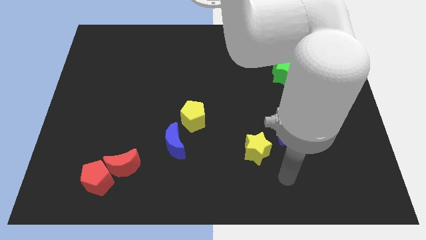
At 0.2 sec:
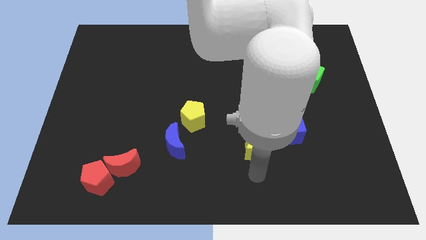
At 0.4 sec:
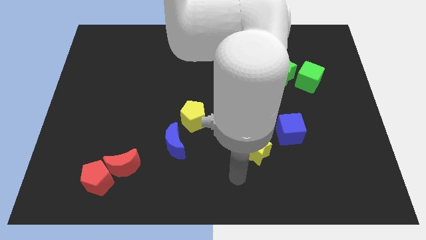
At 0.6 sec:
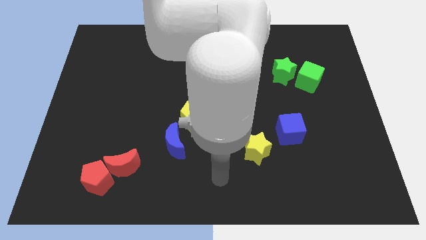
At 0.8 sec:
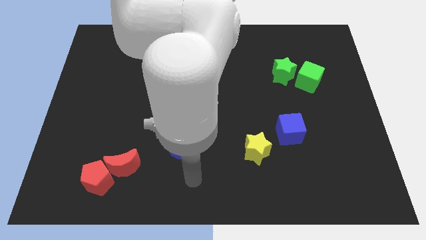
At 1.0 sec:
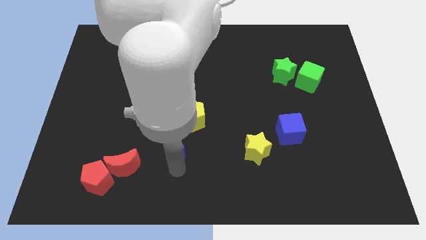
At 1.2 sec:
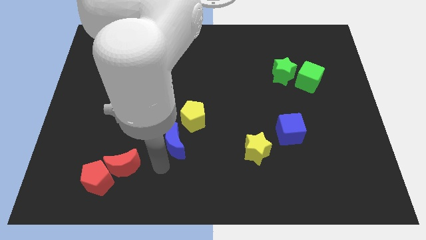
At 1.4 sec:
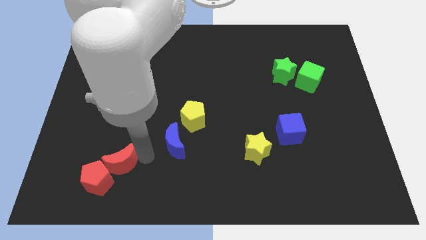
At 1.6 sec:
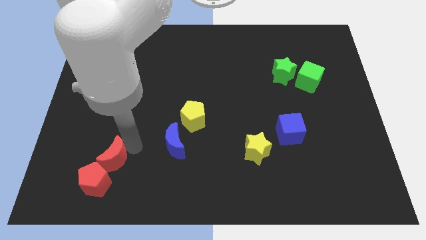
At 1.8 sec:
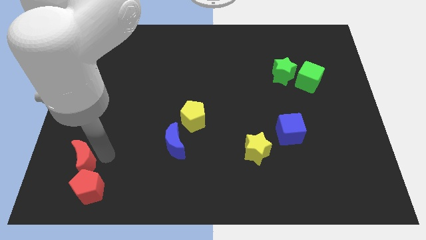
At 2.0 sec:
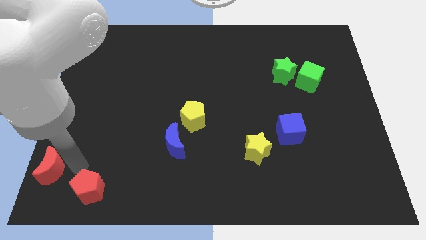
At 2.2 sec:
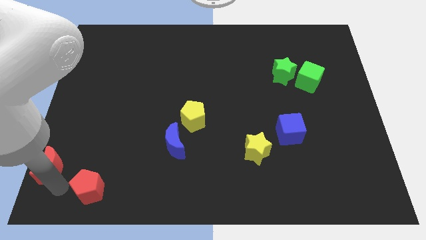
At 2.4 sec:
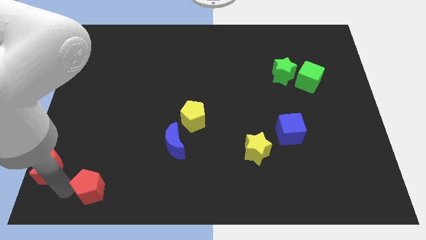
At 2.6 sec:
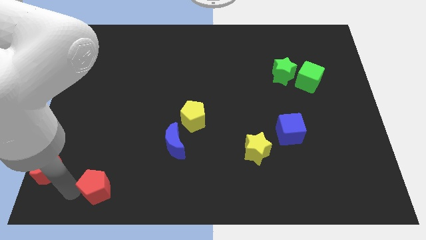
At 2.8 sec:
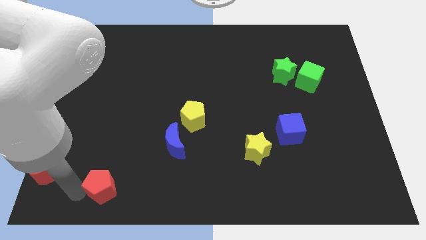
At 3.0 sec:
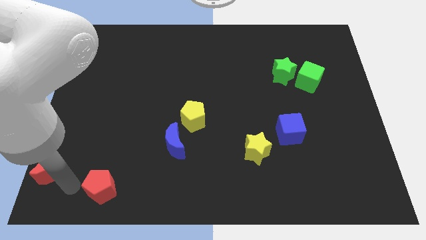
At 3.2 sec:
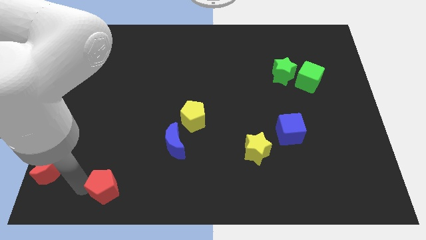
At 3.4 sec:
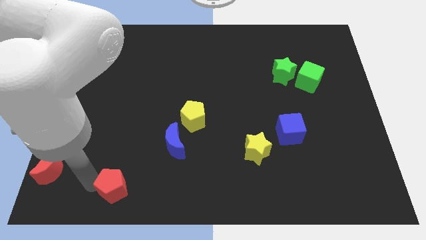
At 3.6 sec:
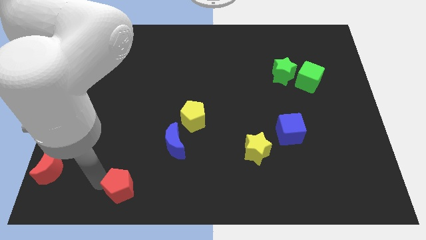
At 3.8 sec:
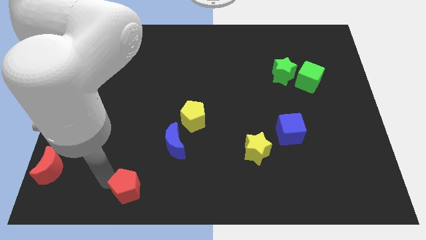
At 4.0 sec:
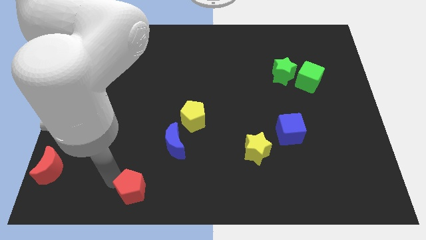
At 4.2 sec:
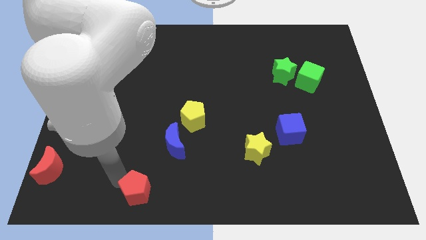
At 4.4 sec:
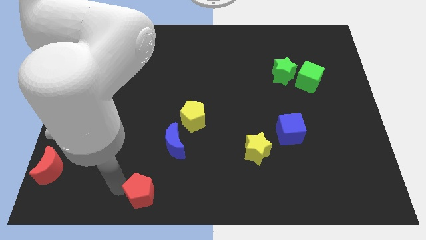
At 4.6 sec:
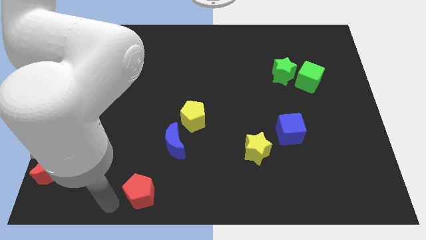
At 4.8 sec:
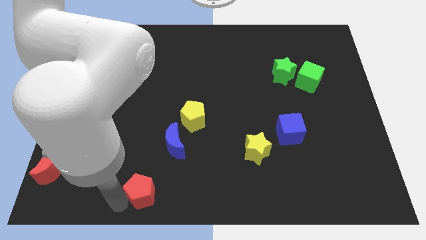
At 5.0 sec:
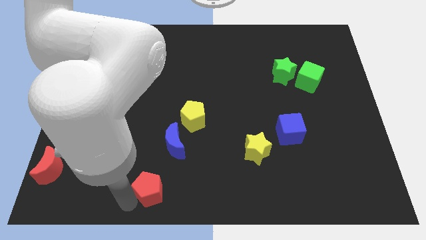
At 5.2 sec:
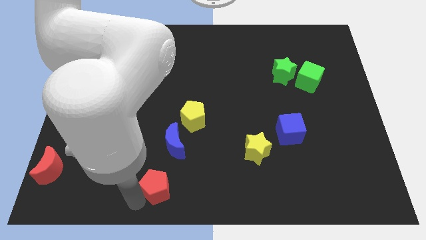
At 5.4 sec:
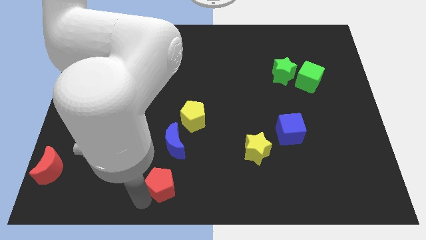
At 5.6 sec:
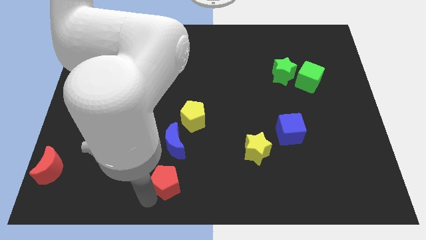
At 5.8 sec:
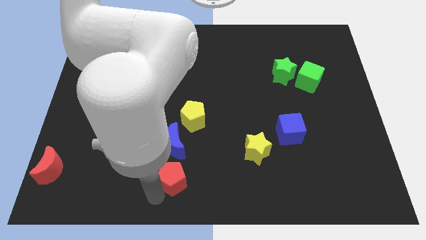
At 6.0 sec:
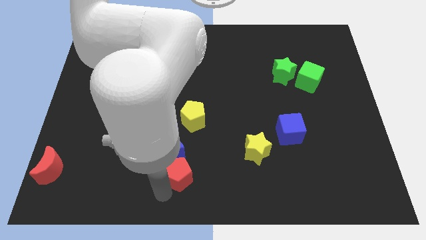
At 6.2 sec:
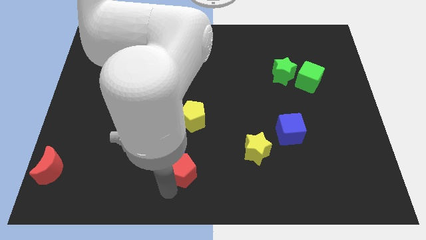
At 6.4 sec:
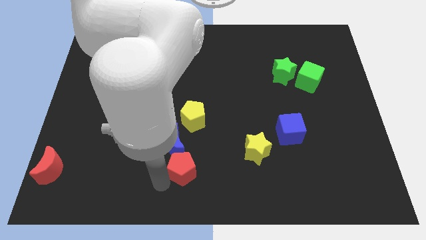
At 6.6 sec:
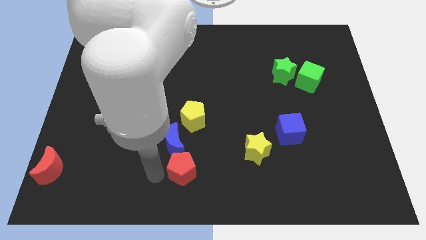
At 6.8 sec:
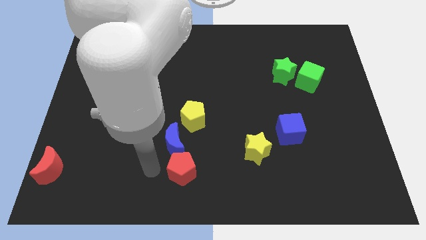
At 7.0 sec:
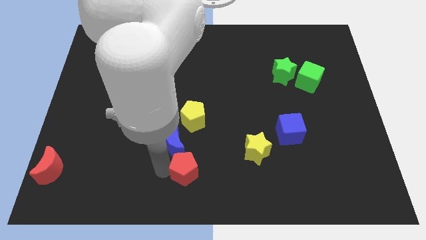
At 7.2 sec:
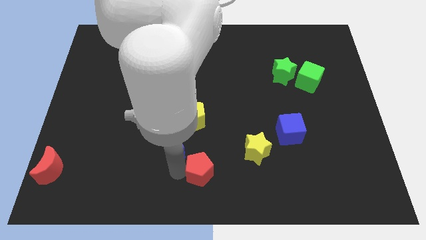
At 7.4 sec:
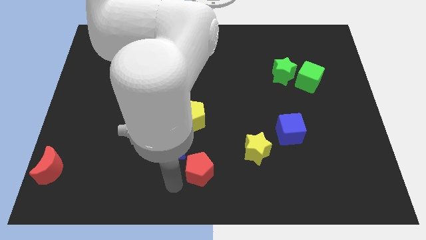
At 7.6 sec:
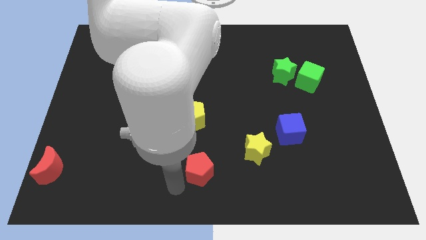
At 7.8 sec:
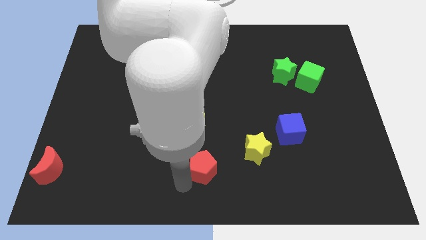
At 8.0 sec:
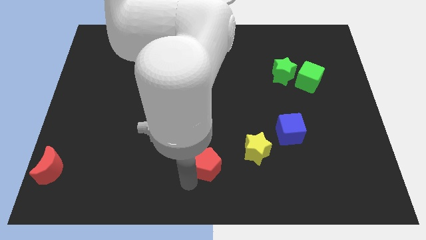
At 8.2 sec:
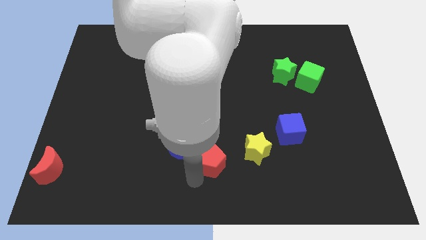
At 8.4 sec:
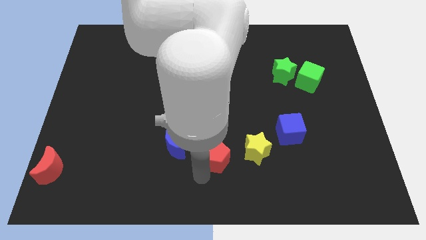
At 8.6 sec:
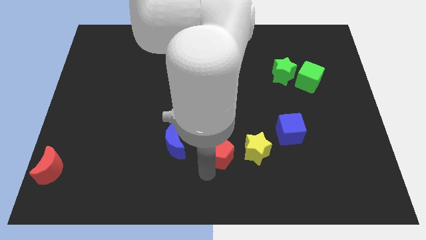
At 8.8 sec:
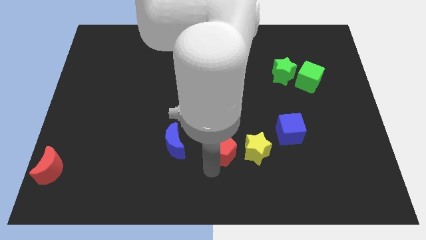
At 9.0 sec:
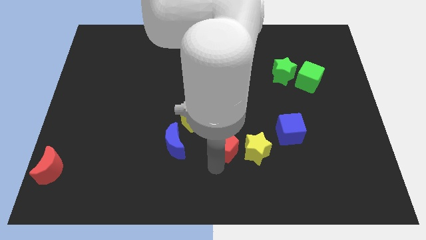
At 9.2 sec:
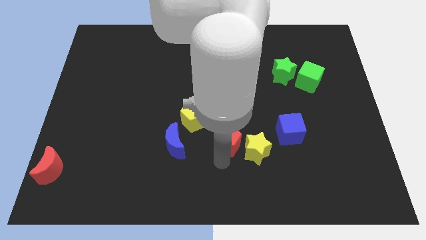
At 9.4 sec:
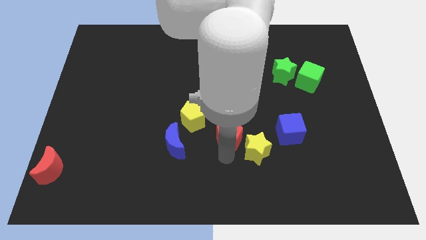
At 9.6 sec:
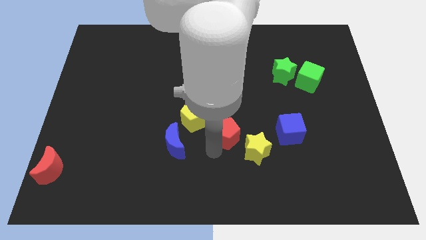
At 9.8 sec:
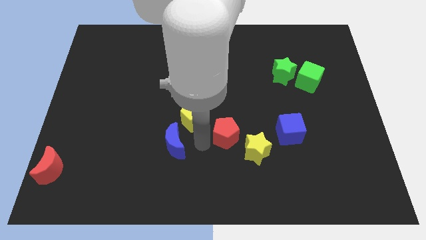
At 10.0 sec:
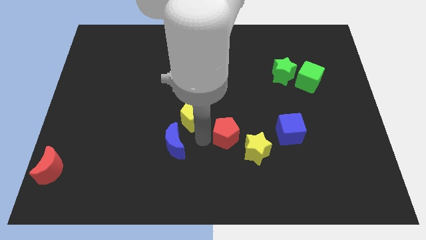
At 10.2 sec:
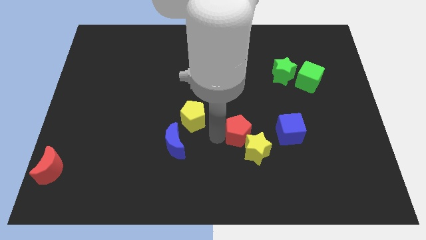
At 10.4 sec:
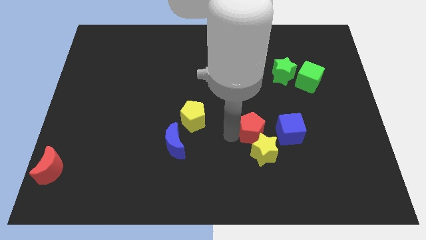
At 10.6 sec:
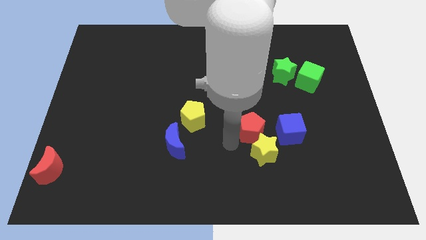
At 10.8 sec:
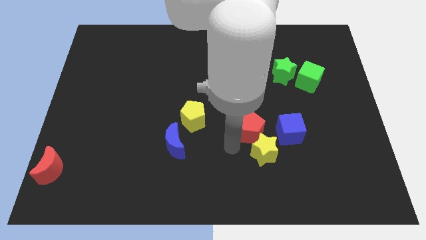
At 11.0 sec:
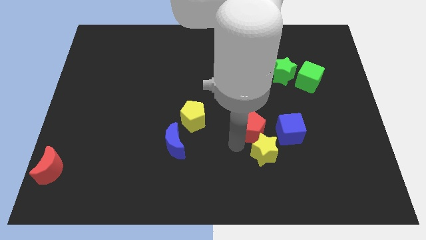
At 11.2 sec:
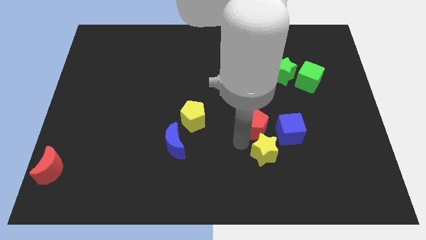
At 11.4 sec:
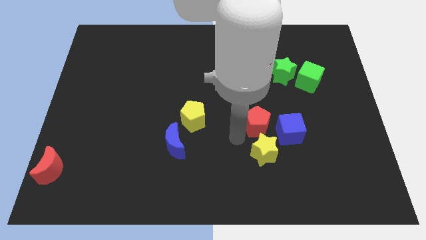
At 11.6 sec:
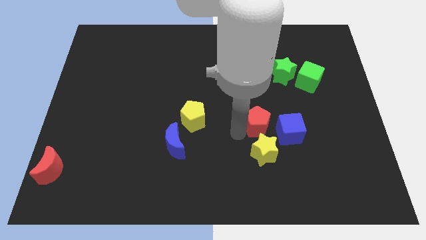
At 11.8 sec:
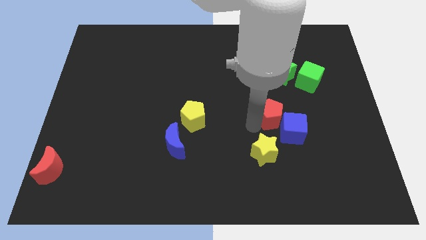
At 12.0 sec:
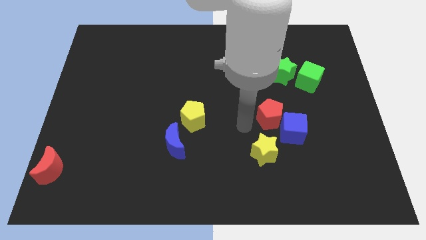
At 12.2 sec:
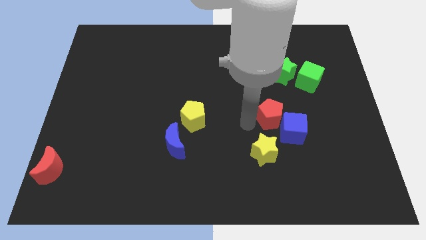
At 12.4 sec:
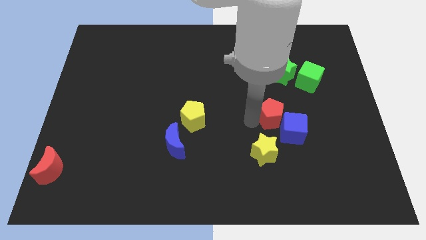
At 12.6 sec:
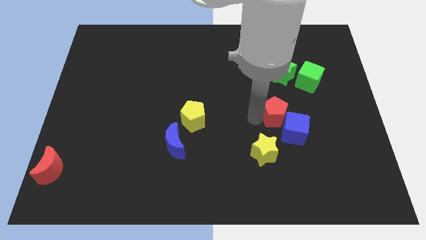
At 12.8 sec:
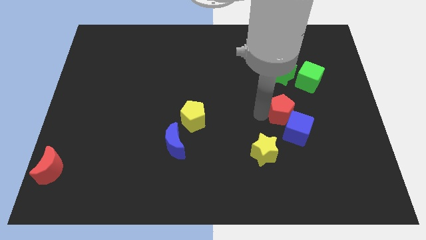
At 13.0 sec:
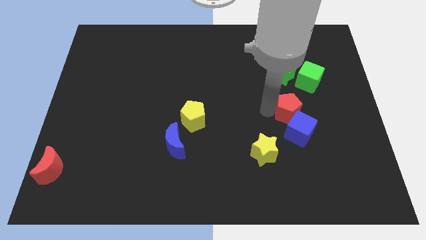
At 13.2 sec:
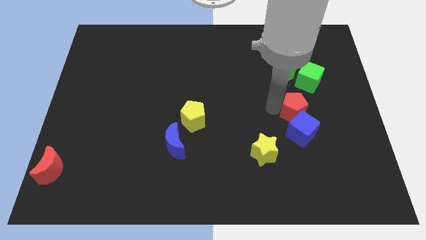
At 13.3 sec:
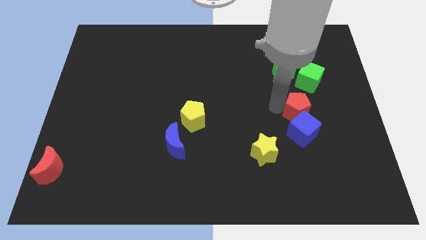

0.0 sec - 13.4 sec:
put the red pentagon diagonally up and to the right of the blue cube

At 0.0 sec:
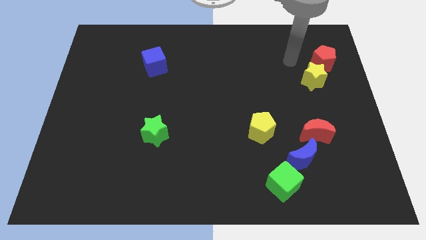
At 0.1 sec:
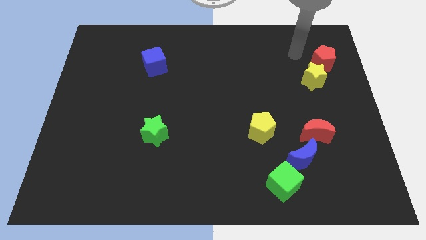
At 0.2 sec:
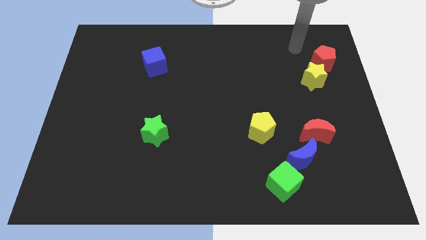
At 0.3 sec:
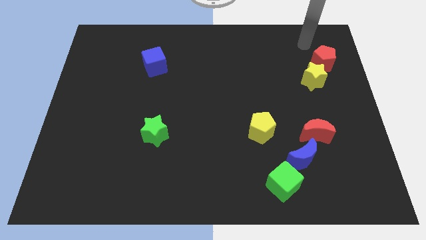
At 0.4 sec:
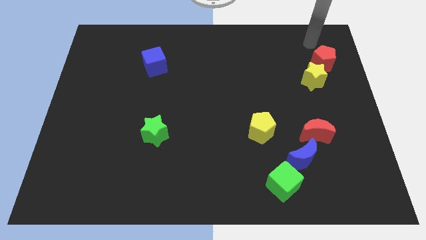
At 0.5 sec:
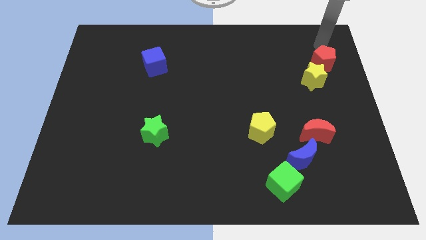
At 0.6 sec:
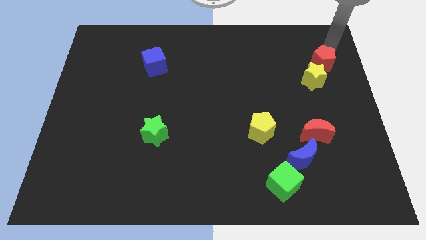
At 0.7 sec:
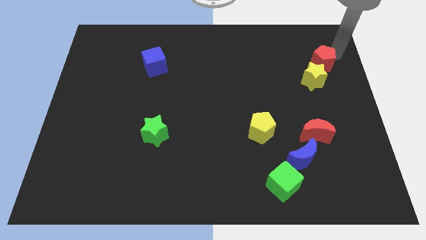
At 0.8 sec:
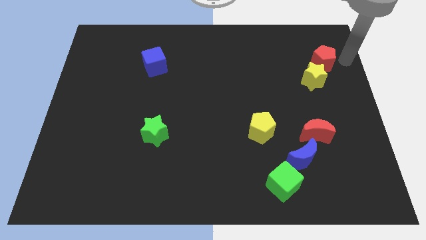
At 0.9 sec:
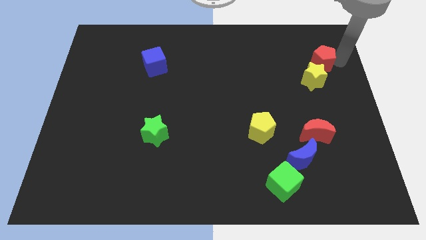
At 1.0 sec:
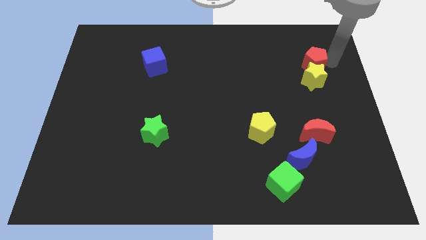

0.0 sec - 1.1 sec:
slide the red pentagon diagonally up and to the left of the yellow star

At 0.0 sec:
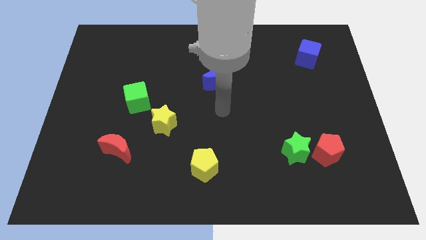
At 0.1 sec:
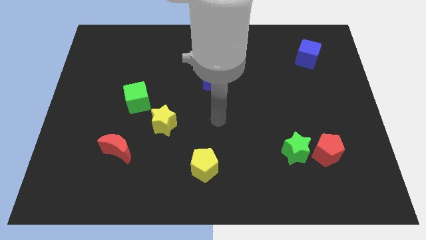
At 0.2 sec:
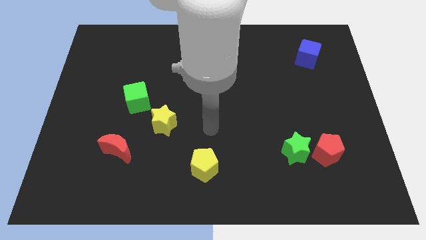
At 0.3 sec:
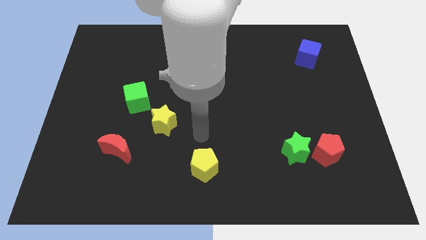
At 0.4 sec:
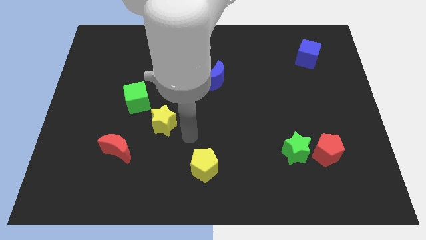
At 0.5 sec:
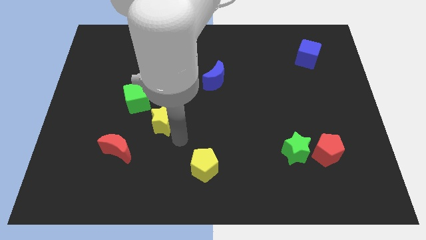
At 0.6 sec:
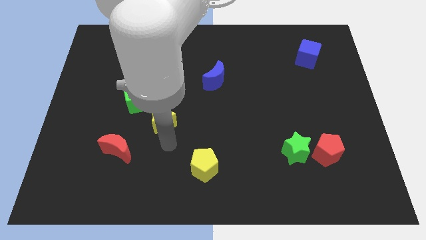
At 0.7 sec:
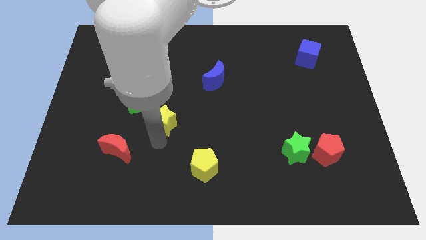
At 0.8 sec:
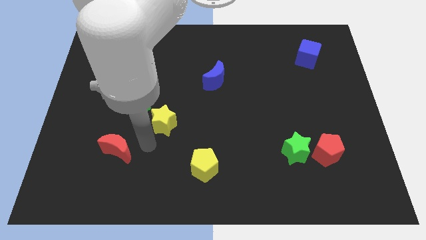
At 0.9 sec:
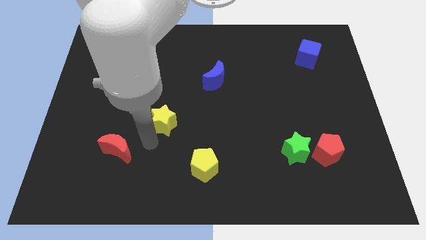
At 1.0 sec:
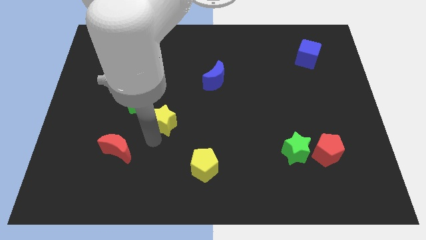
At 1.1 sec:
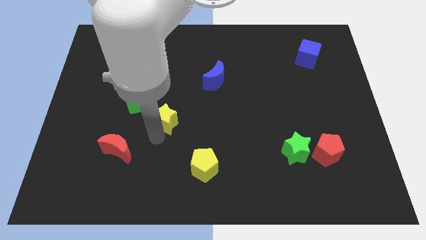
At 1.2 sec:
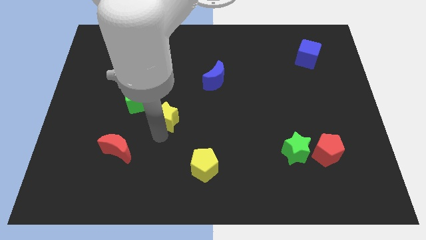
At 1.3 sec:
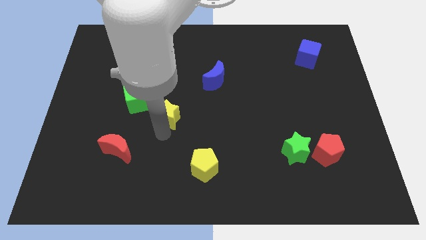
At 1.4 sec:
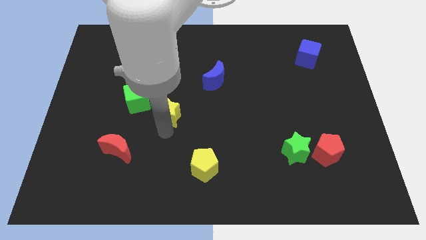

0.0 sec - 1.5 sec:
put the yellow star to the right of the green cube
